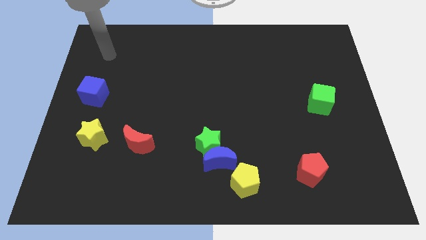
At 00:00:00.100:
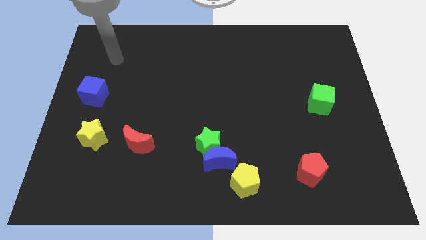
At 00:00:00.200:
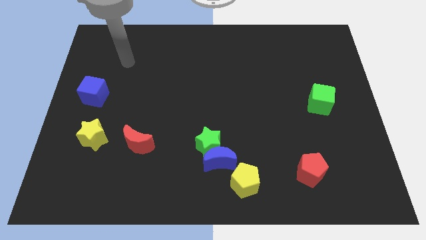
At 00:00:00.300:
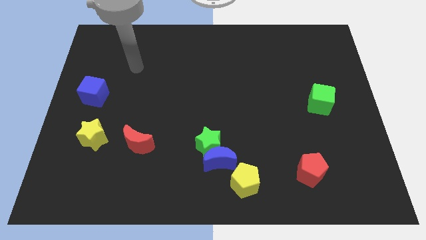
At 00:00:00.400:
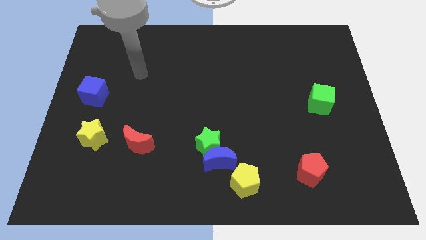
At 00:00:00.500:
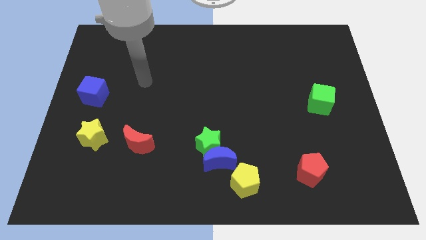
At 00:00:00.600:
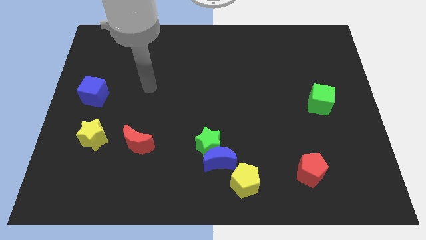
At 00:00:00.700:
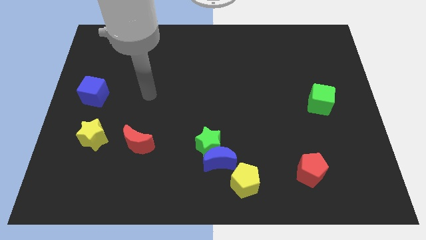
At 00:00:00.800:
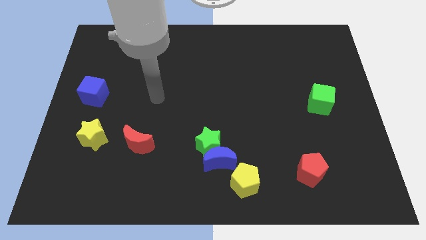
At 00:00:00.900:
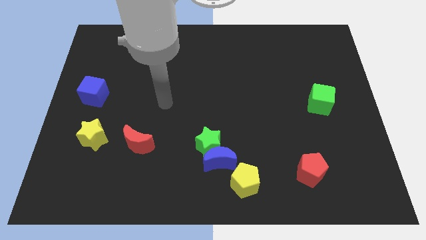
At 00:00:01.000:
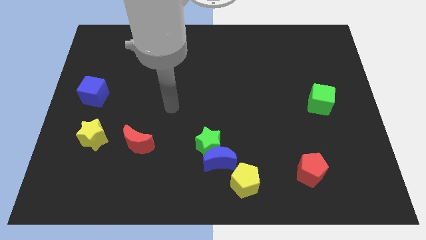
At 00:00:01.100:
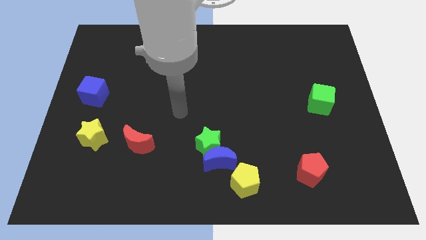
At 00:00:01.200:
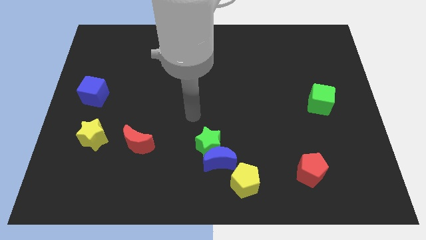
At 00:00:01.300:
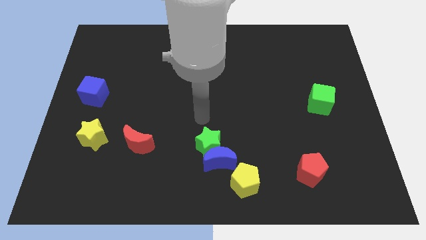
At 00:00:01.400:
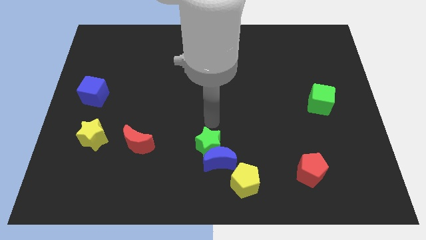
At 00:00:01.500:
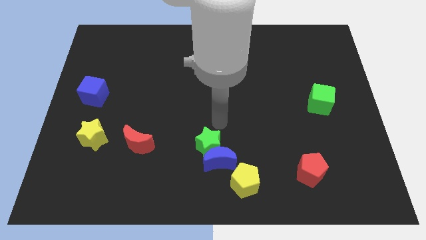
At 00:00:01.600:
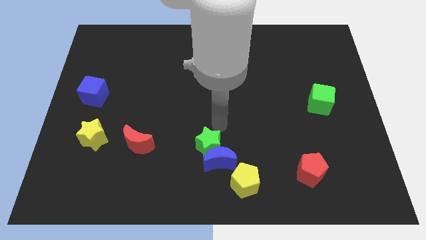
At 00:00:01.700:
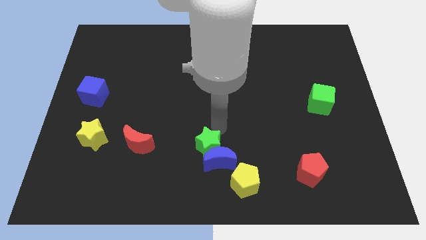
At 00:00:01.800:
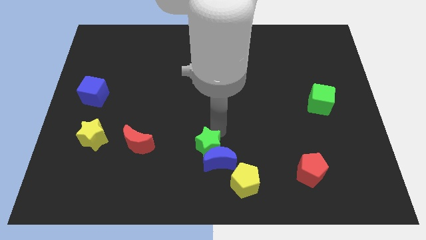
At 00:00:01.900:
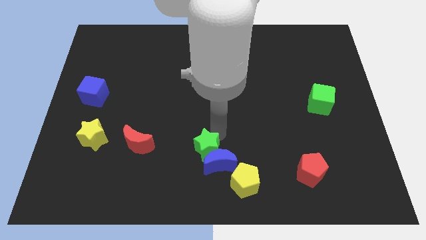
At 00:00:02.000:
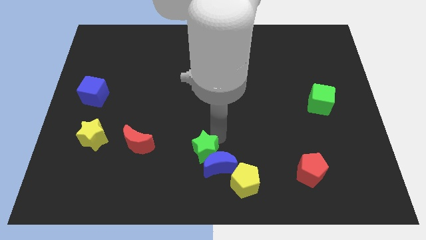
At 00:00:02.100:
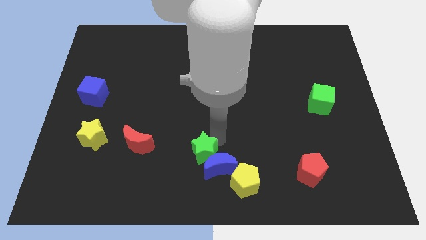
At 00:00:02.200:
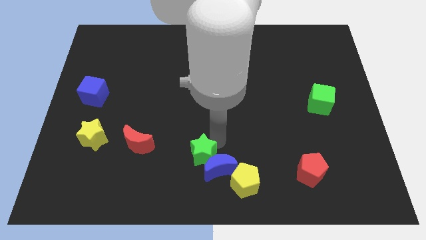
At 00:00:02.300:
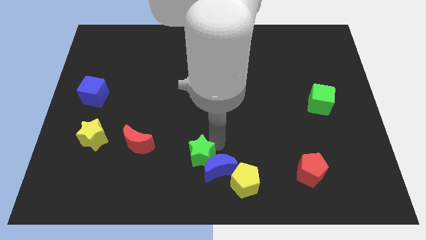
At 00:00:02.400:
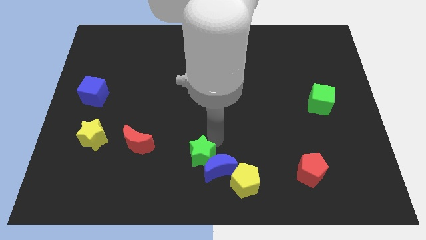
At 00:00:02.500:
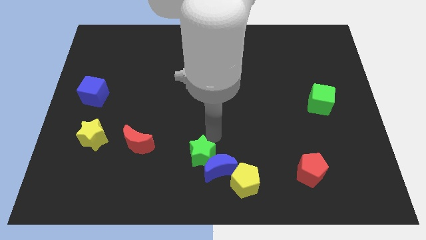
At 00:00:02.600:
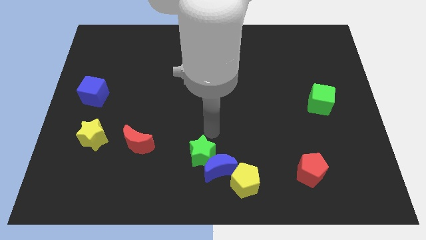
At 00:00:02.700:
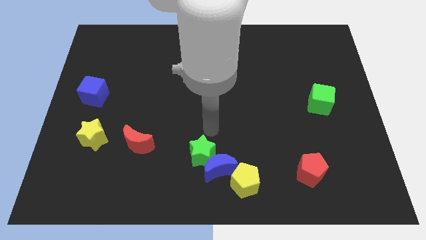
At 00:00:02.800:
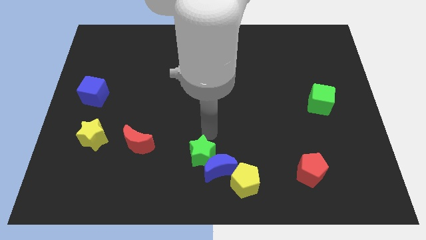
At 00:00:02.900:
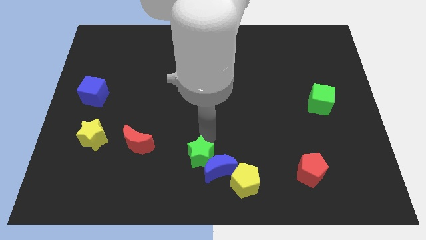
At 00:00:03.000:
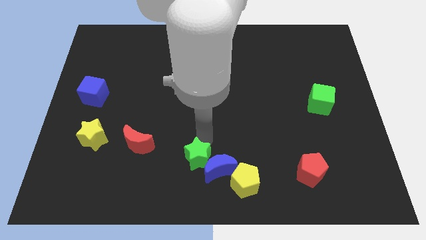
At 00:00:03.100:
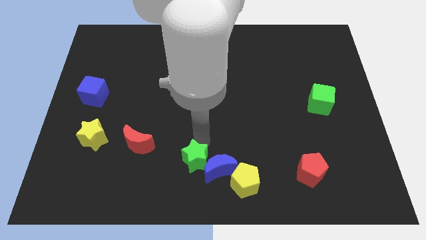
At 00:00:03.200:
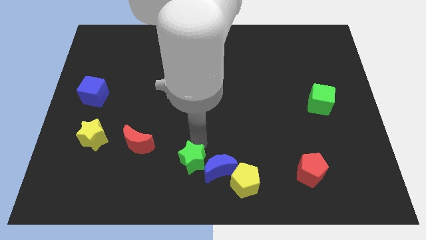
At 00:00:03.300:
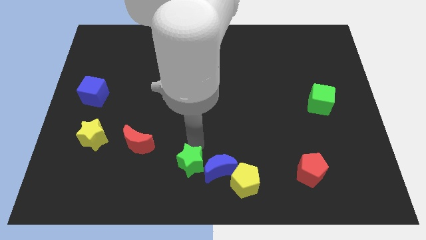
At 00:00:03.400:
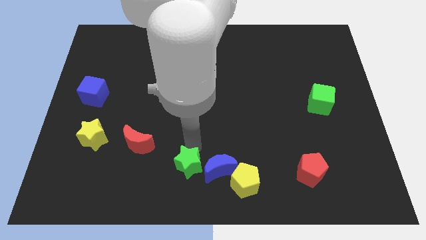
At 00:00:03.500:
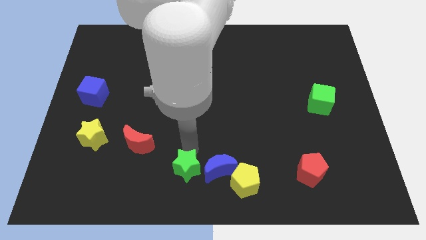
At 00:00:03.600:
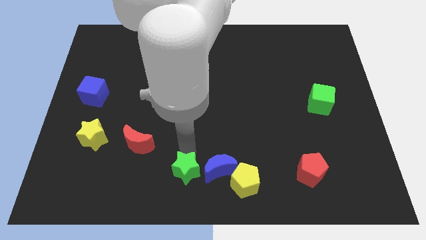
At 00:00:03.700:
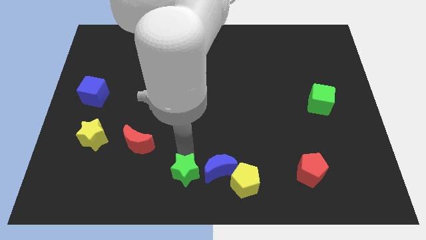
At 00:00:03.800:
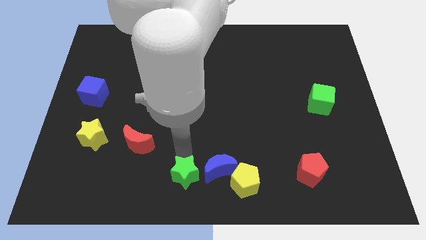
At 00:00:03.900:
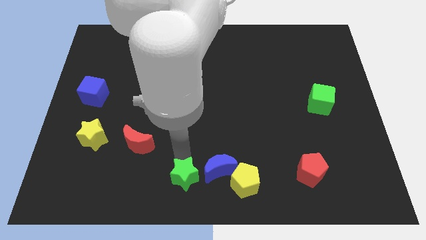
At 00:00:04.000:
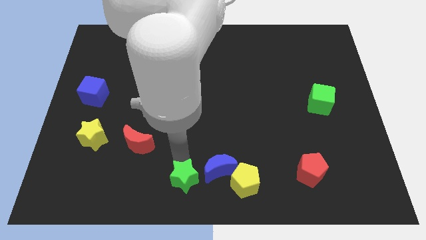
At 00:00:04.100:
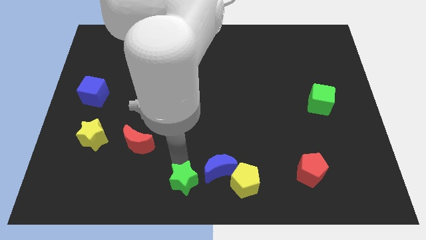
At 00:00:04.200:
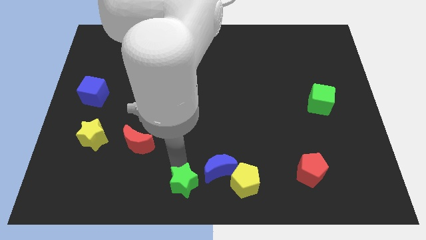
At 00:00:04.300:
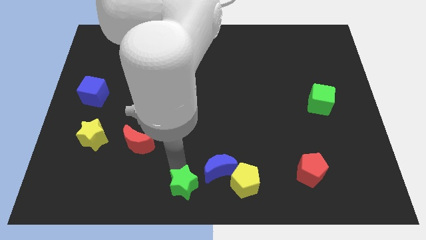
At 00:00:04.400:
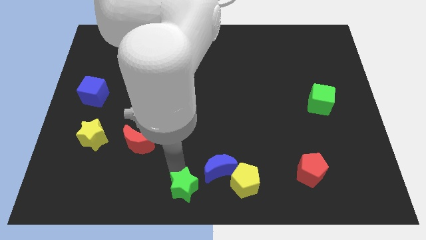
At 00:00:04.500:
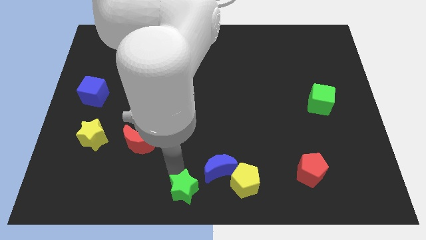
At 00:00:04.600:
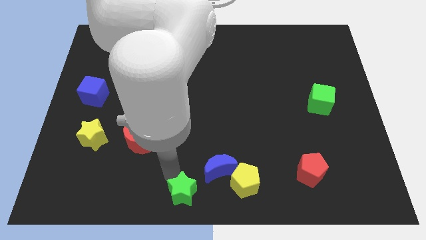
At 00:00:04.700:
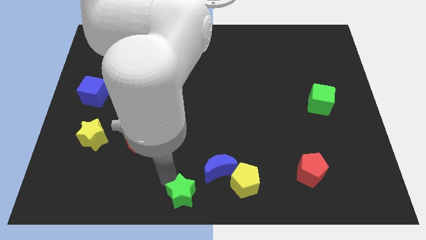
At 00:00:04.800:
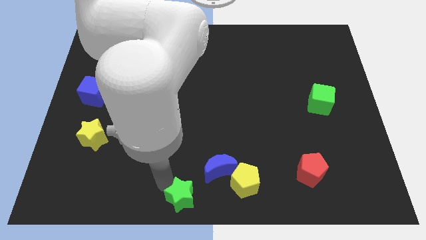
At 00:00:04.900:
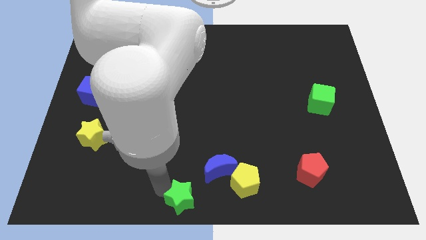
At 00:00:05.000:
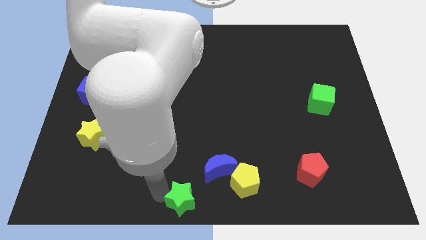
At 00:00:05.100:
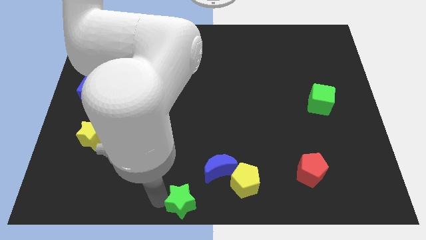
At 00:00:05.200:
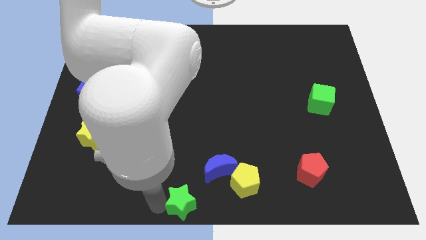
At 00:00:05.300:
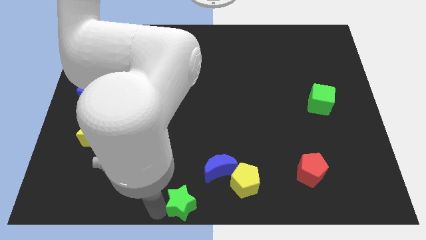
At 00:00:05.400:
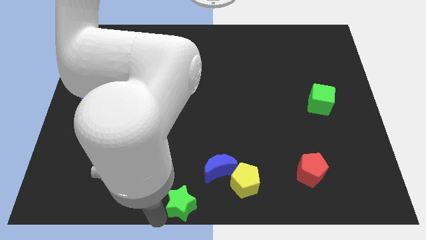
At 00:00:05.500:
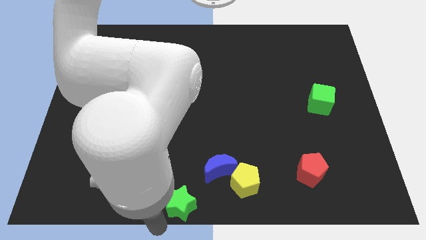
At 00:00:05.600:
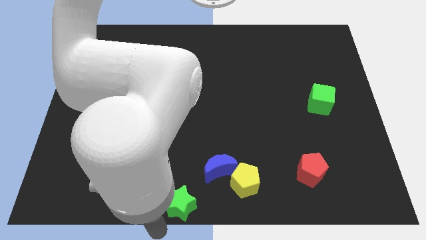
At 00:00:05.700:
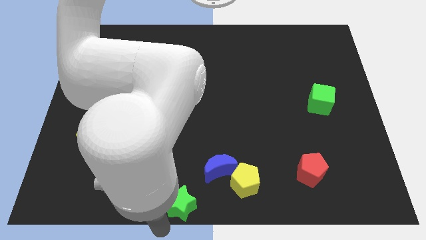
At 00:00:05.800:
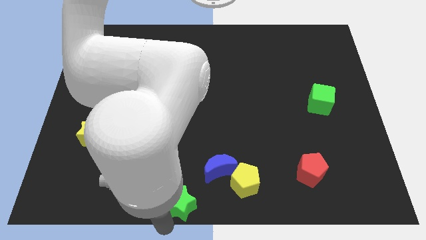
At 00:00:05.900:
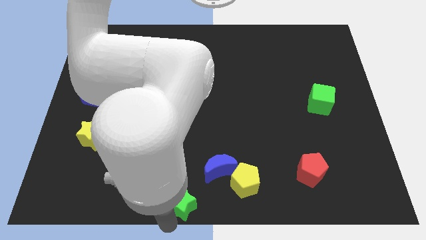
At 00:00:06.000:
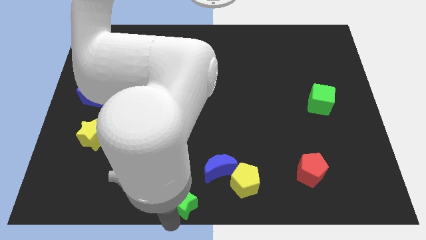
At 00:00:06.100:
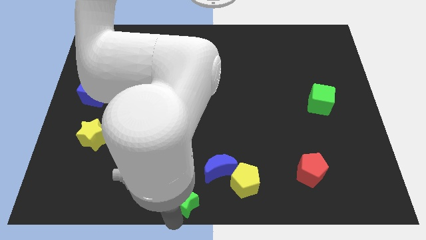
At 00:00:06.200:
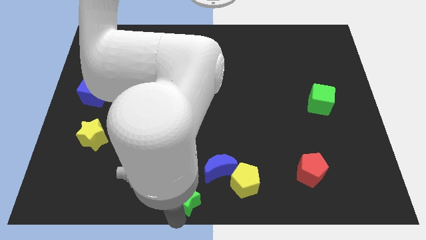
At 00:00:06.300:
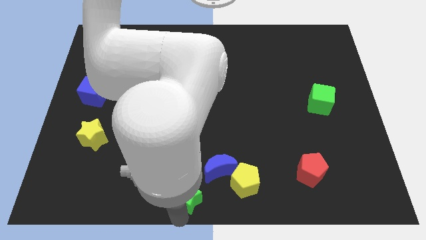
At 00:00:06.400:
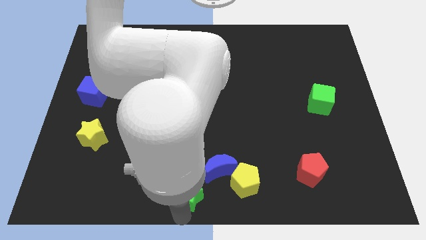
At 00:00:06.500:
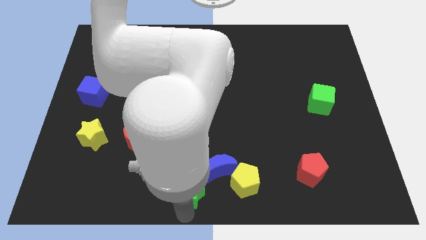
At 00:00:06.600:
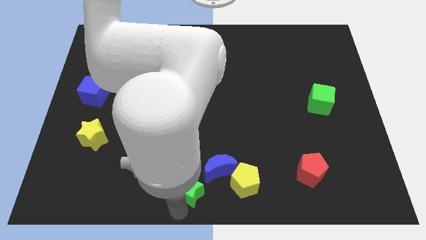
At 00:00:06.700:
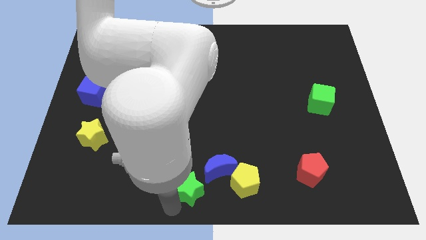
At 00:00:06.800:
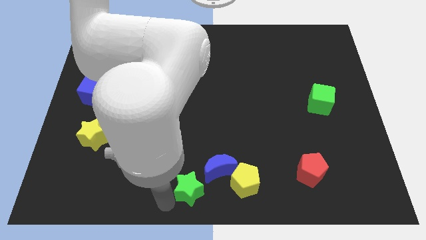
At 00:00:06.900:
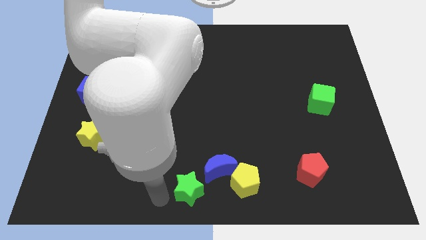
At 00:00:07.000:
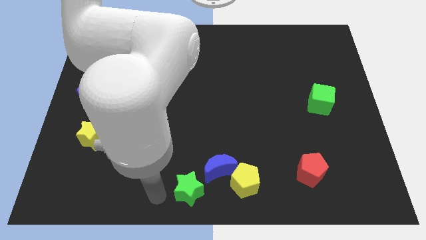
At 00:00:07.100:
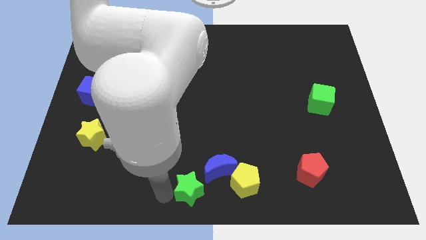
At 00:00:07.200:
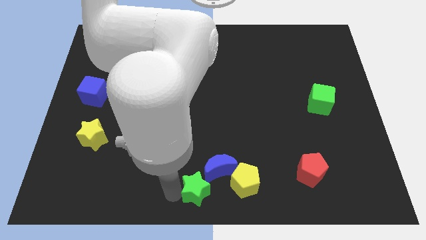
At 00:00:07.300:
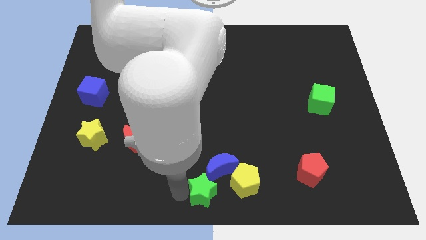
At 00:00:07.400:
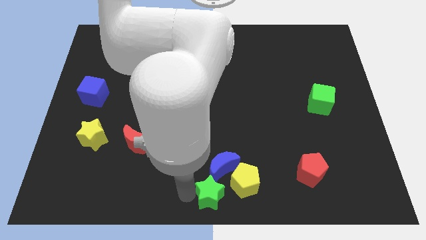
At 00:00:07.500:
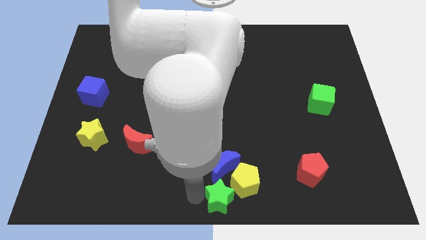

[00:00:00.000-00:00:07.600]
slide the green star next to the yellow pentagon
